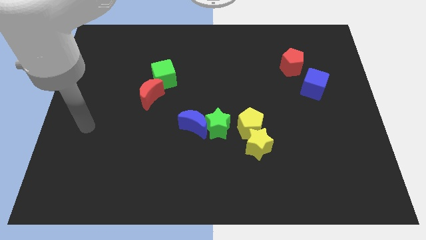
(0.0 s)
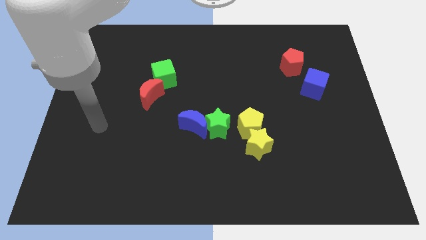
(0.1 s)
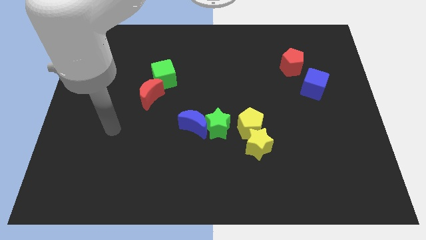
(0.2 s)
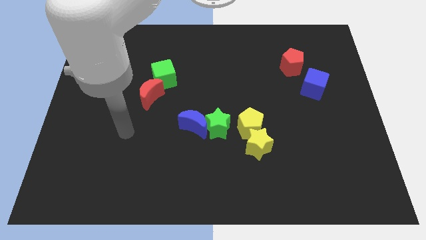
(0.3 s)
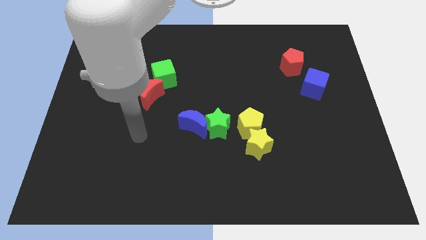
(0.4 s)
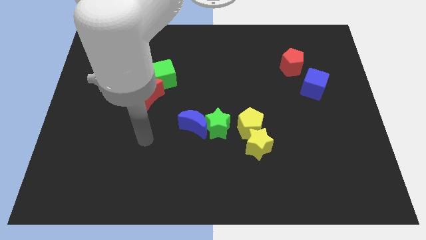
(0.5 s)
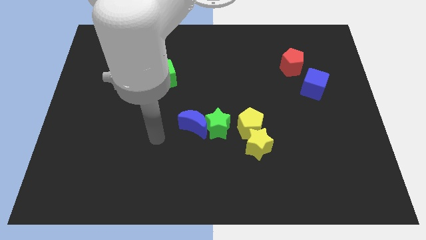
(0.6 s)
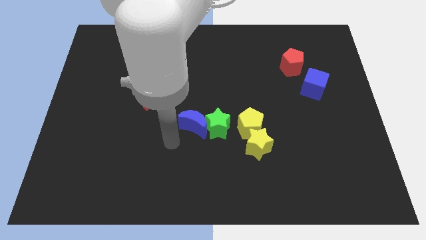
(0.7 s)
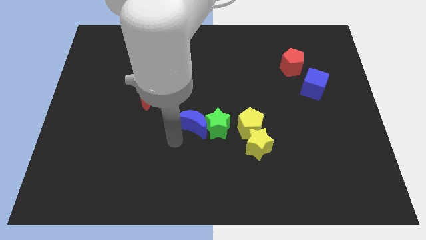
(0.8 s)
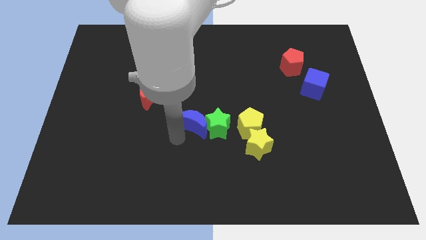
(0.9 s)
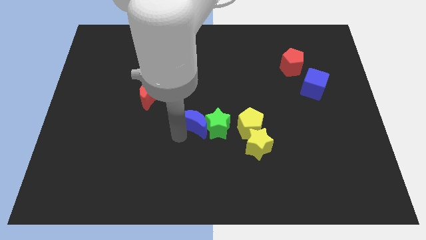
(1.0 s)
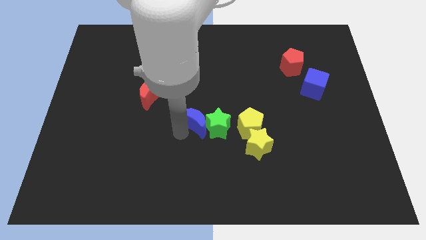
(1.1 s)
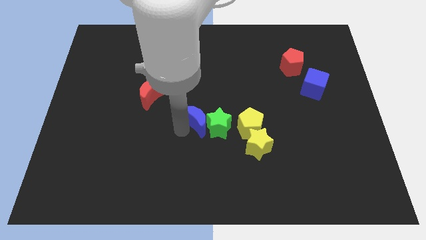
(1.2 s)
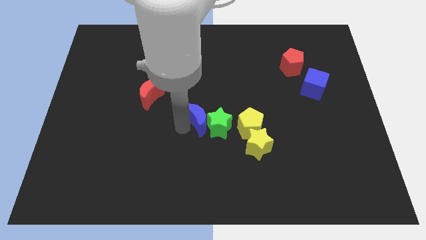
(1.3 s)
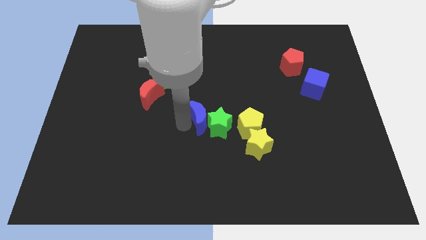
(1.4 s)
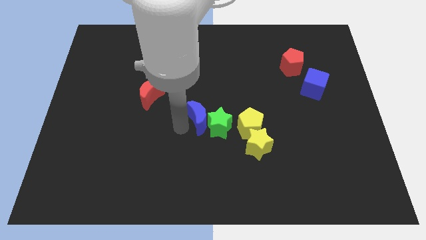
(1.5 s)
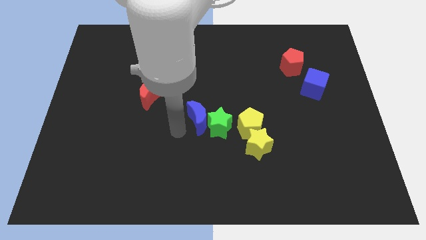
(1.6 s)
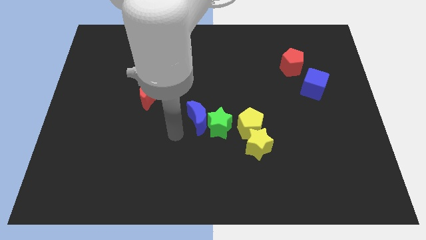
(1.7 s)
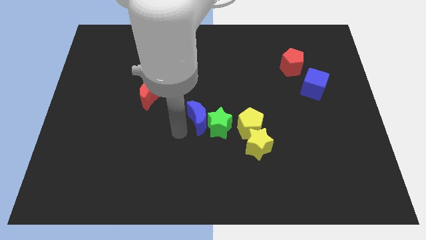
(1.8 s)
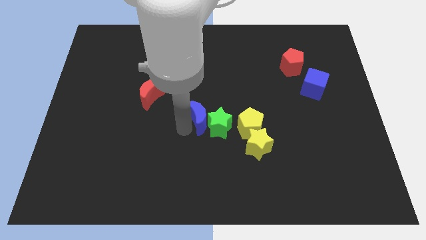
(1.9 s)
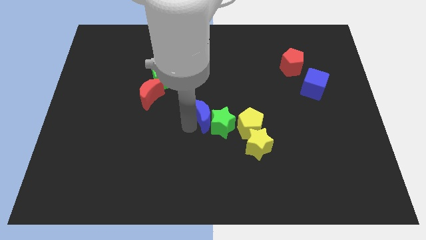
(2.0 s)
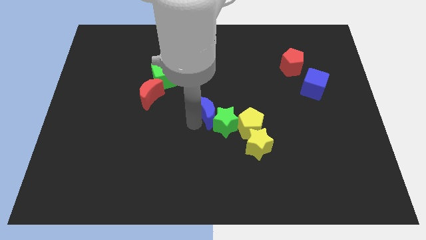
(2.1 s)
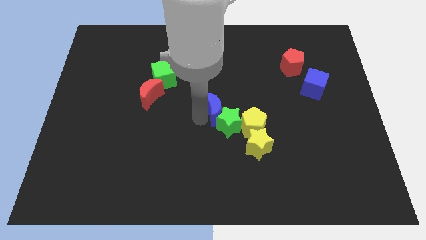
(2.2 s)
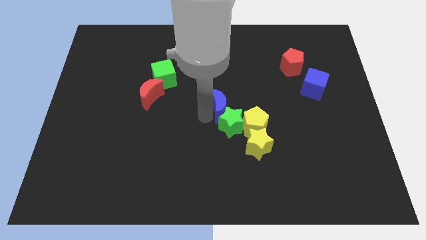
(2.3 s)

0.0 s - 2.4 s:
slide the blue moon upwards and to the right diagonally a bit

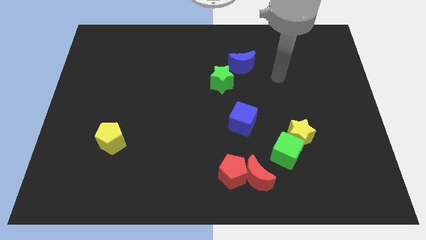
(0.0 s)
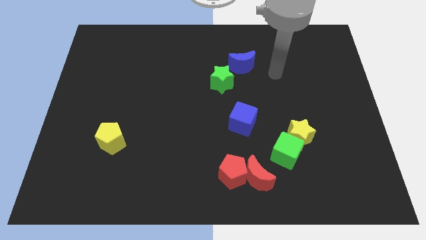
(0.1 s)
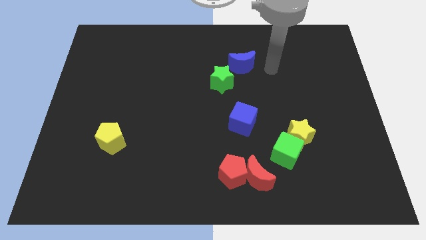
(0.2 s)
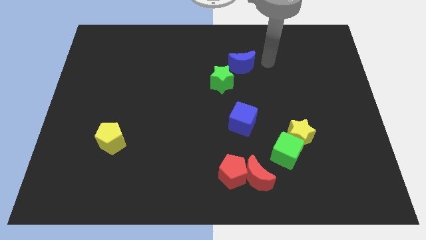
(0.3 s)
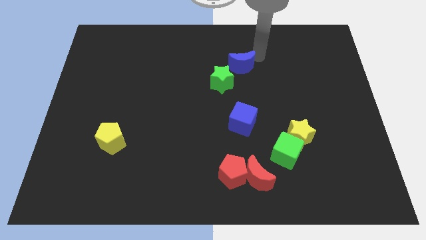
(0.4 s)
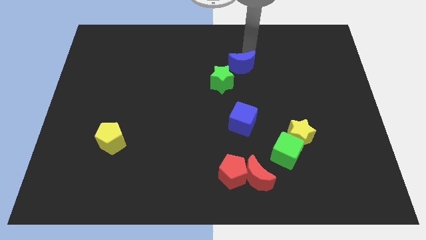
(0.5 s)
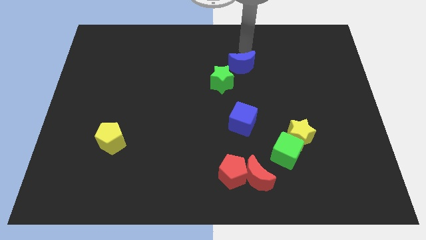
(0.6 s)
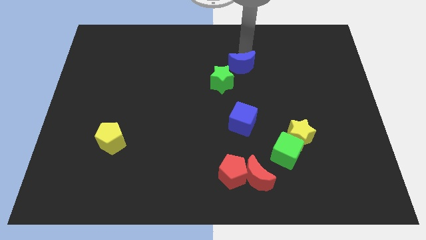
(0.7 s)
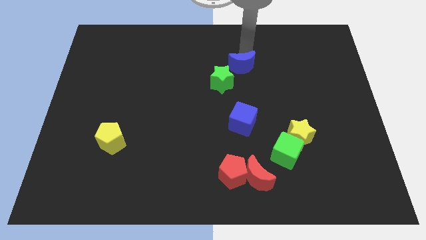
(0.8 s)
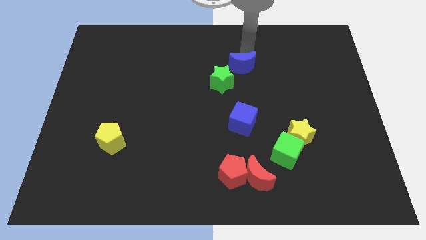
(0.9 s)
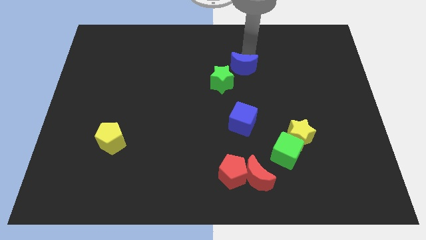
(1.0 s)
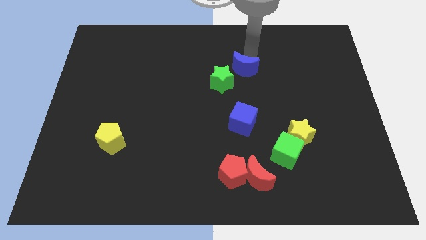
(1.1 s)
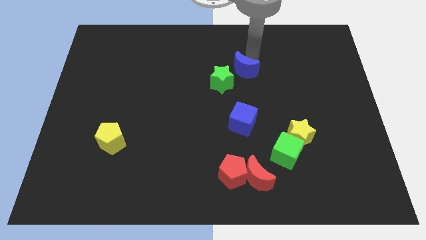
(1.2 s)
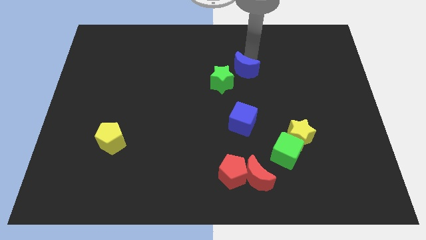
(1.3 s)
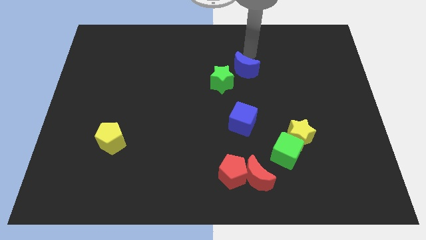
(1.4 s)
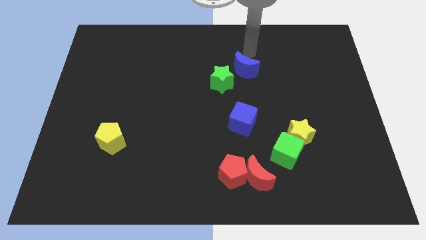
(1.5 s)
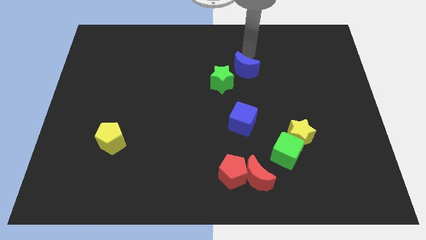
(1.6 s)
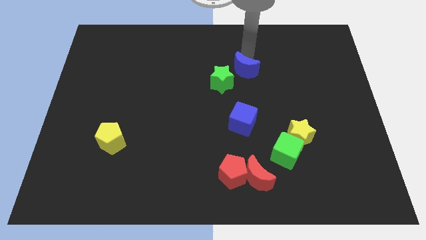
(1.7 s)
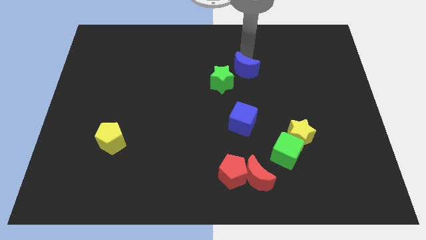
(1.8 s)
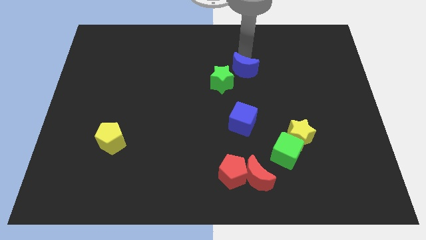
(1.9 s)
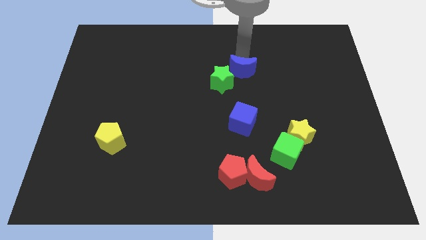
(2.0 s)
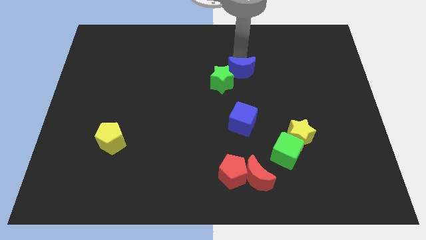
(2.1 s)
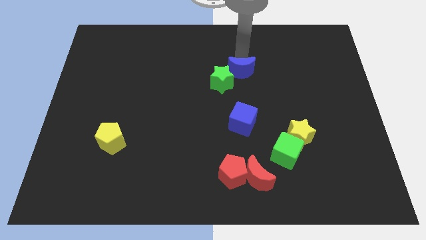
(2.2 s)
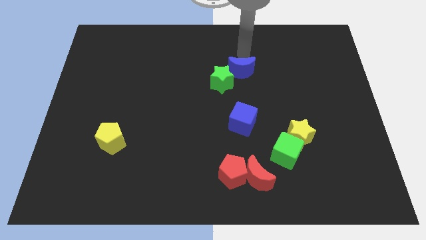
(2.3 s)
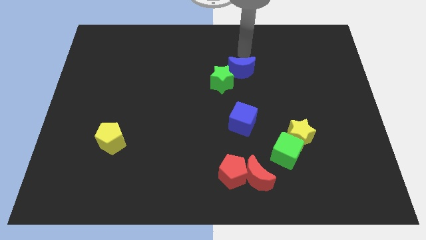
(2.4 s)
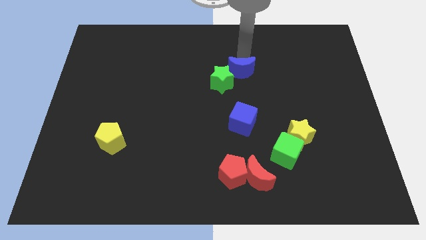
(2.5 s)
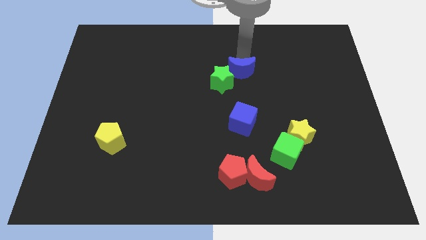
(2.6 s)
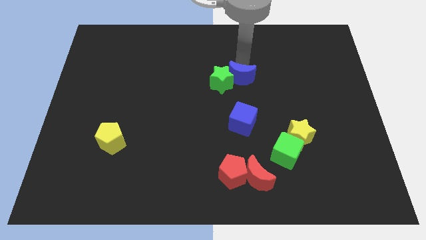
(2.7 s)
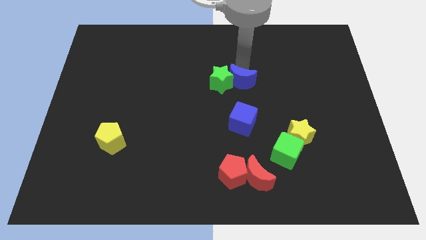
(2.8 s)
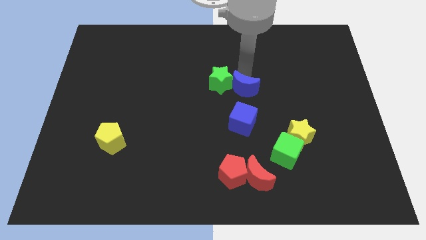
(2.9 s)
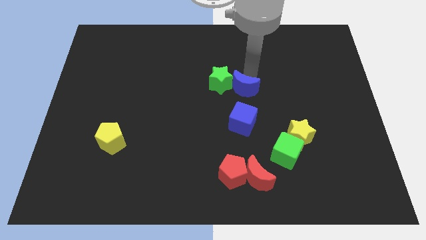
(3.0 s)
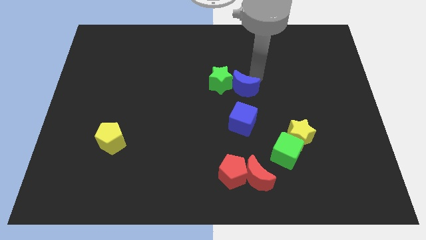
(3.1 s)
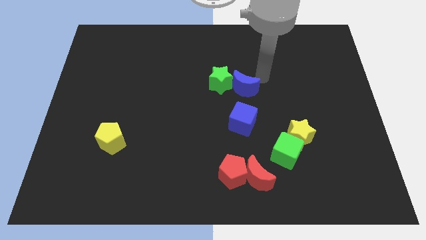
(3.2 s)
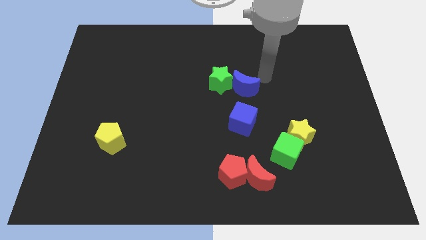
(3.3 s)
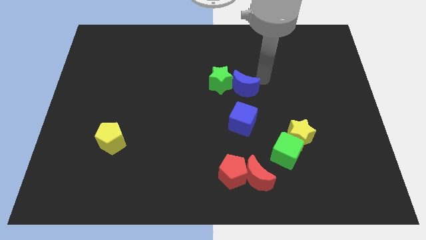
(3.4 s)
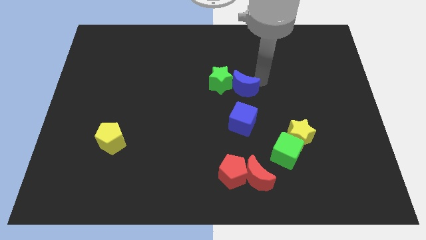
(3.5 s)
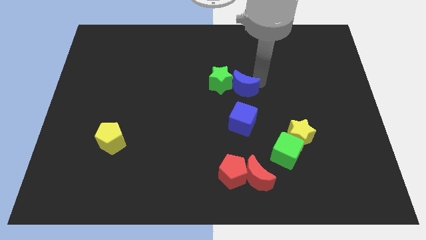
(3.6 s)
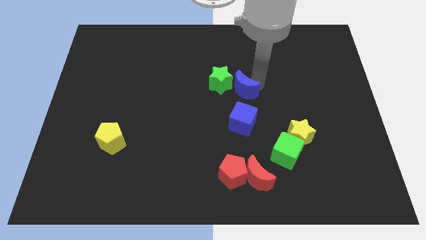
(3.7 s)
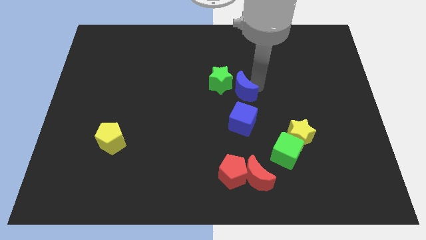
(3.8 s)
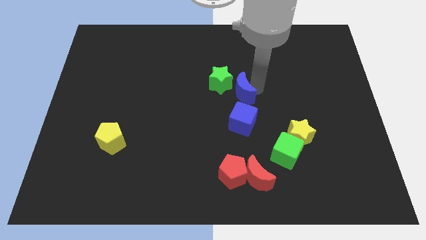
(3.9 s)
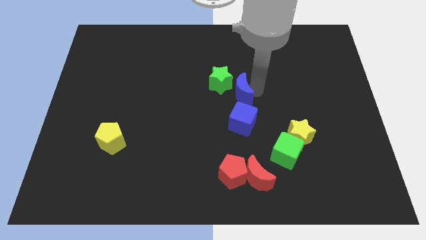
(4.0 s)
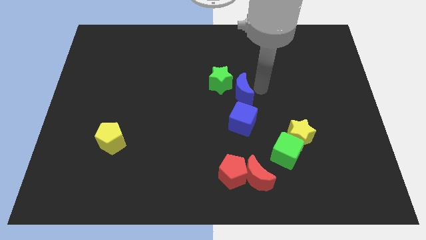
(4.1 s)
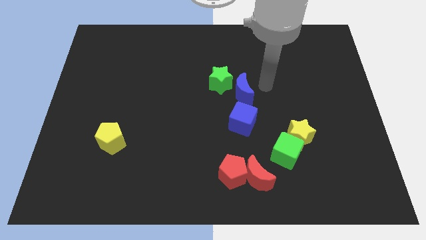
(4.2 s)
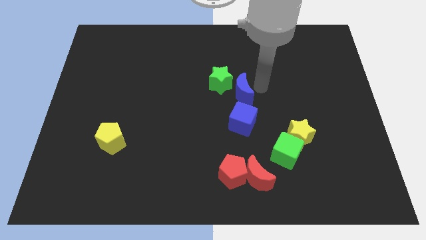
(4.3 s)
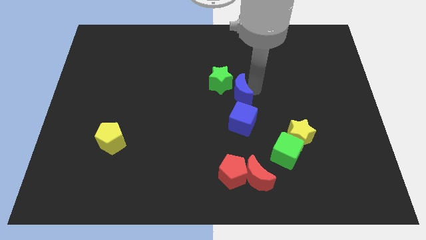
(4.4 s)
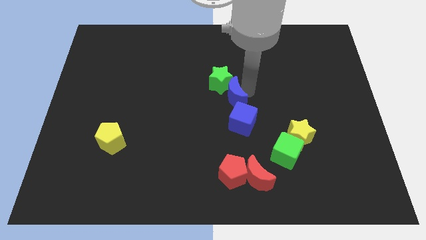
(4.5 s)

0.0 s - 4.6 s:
move the blue moon slightly down and then left

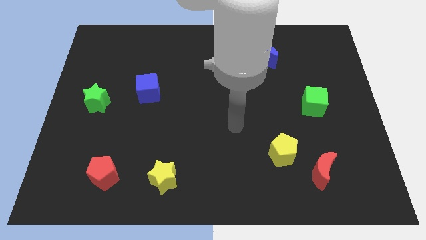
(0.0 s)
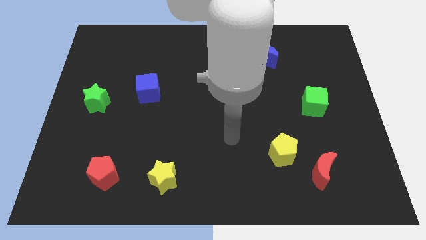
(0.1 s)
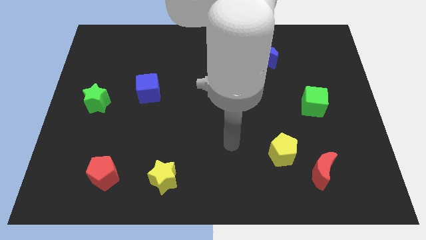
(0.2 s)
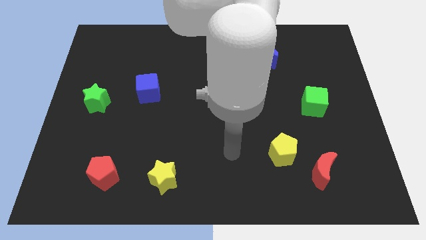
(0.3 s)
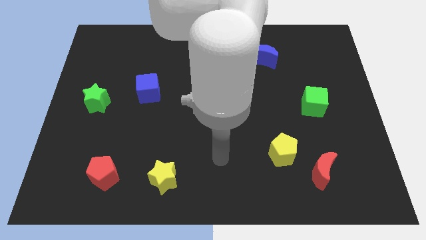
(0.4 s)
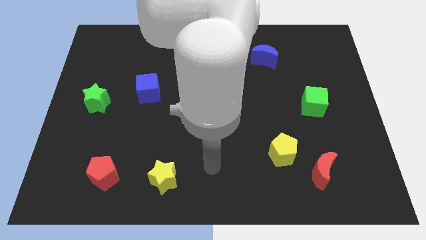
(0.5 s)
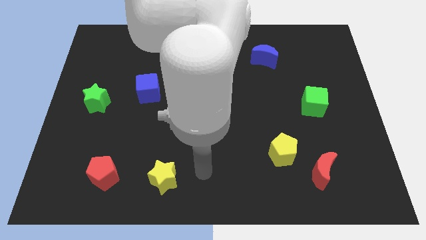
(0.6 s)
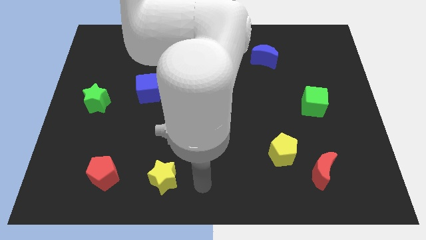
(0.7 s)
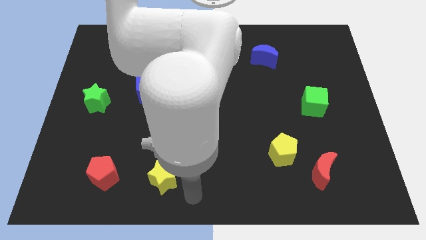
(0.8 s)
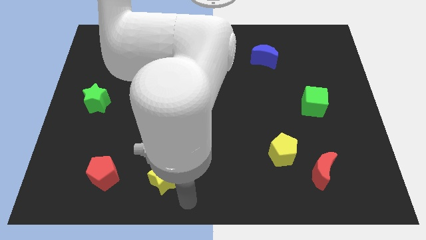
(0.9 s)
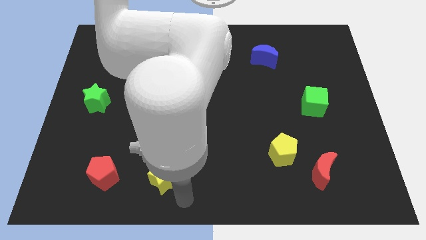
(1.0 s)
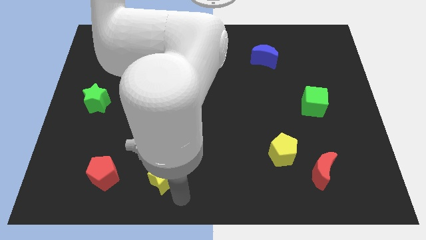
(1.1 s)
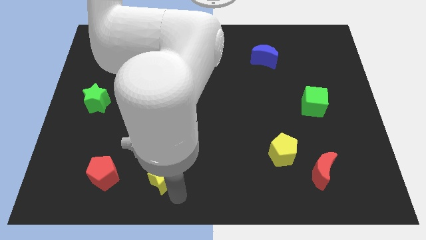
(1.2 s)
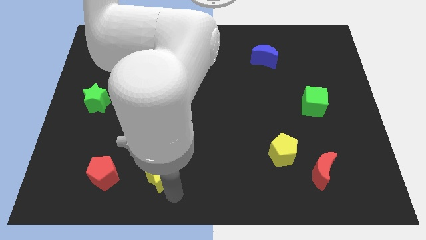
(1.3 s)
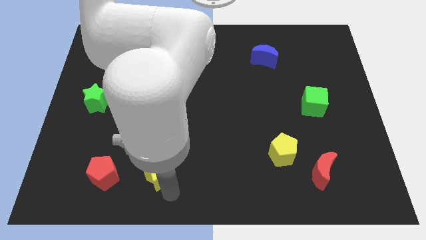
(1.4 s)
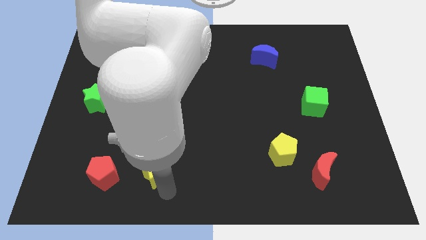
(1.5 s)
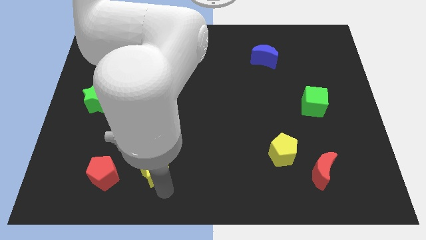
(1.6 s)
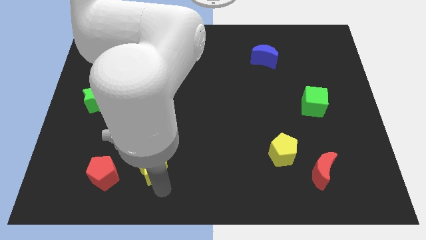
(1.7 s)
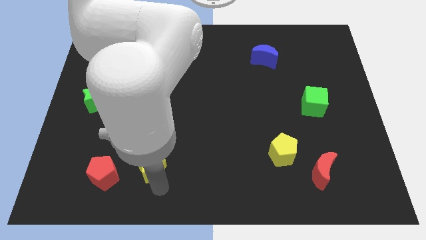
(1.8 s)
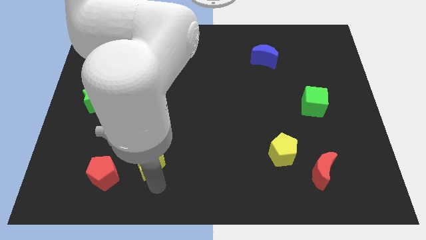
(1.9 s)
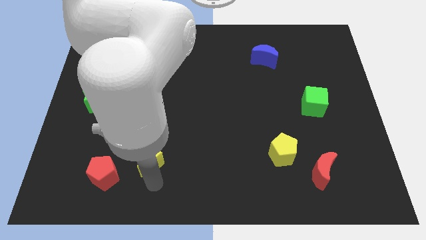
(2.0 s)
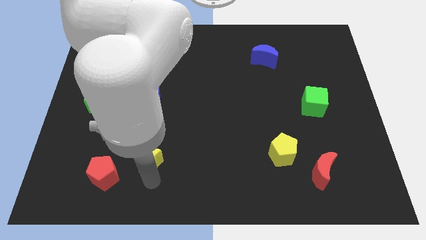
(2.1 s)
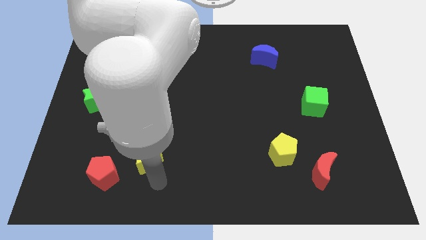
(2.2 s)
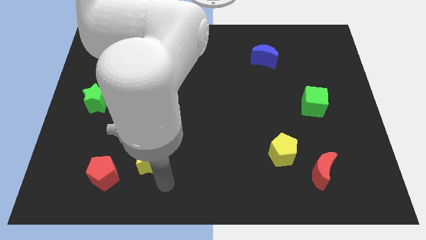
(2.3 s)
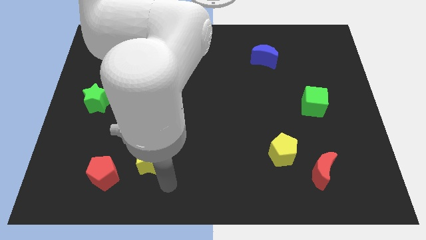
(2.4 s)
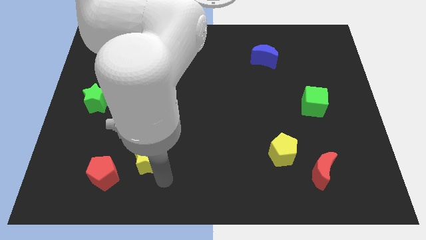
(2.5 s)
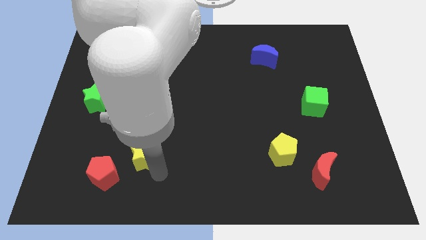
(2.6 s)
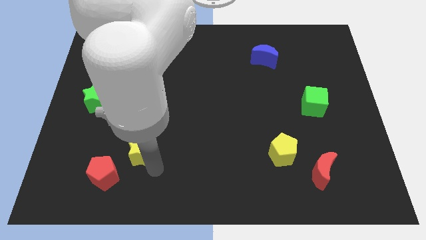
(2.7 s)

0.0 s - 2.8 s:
push the yellow star up and left diagonally a little
